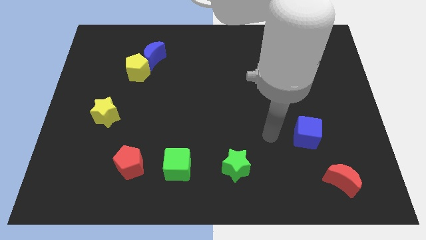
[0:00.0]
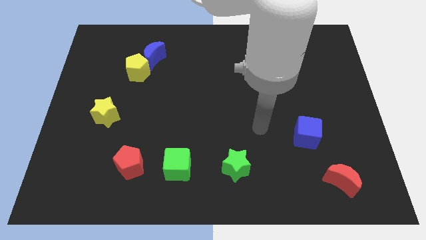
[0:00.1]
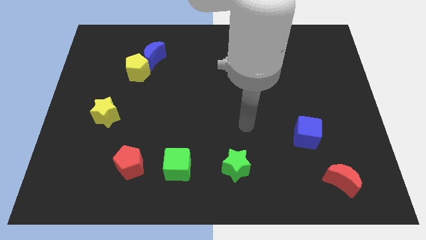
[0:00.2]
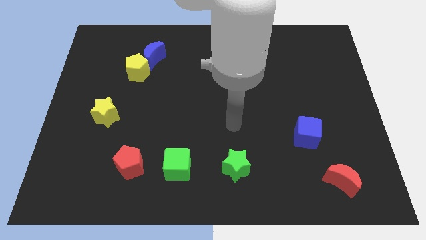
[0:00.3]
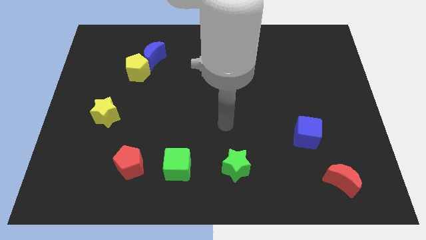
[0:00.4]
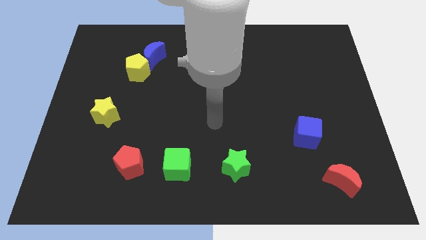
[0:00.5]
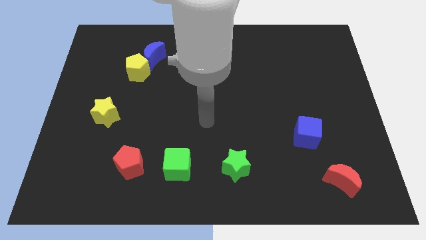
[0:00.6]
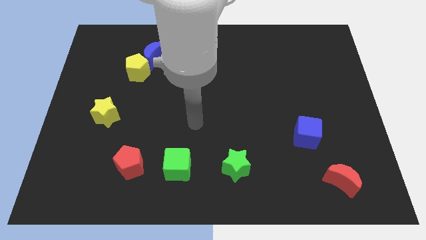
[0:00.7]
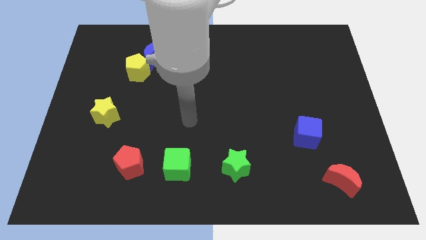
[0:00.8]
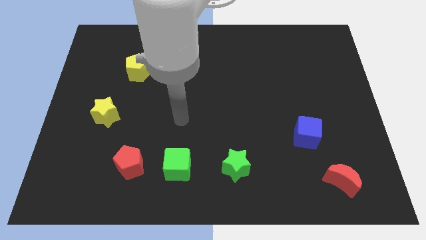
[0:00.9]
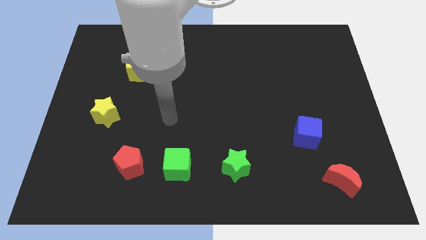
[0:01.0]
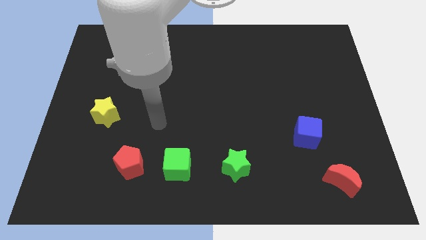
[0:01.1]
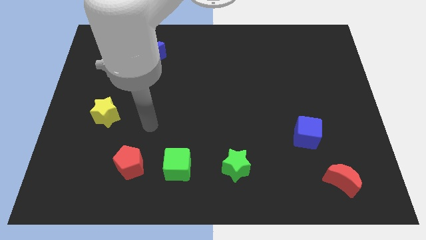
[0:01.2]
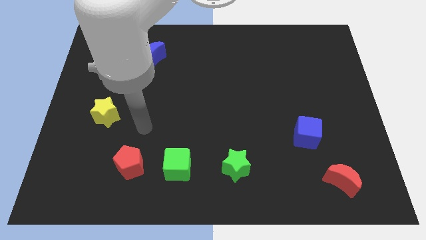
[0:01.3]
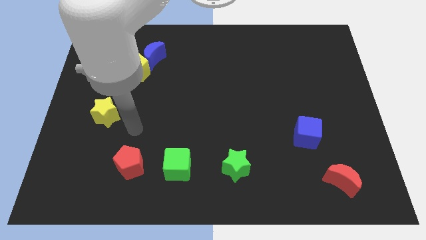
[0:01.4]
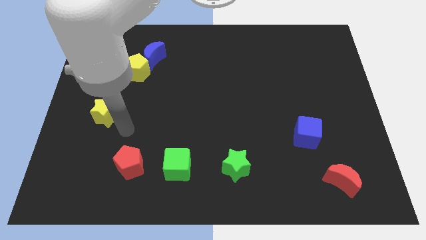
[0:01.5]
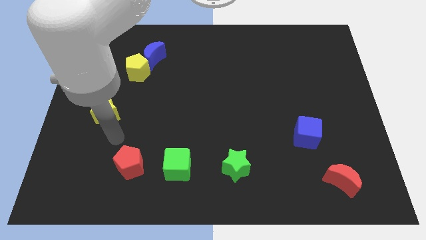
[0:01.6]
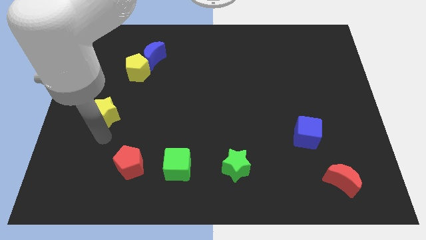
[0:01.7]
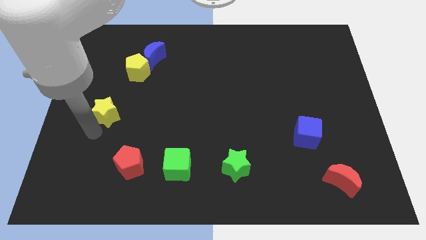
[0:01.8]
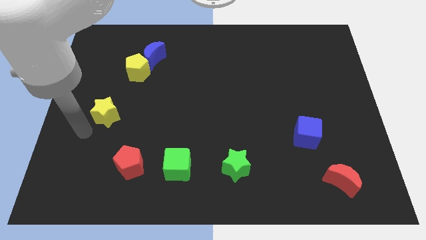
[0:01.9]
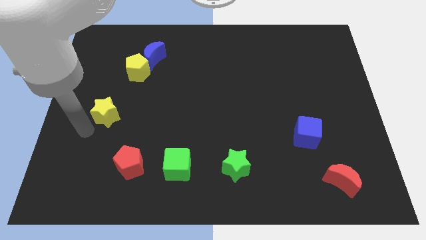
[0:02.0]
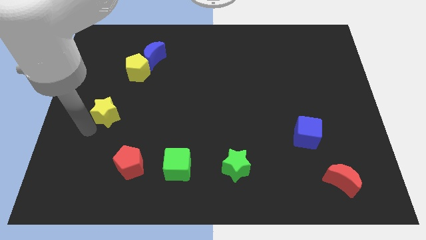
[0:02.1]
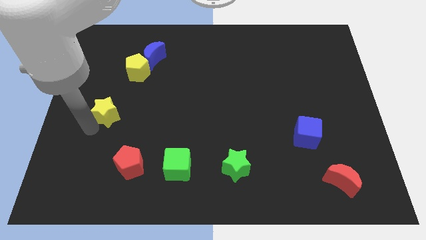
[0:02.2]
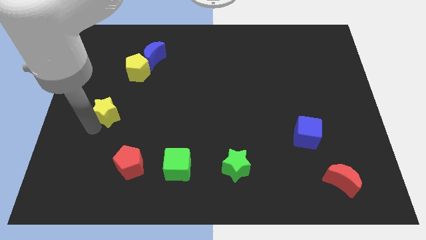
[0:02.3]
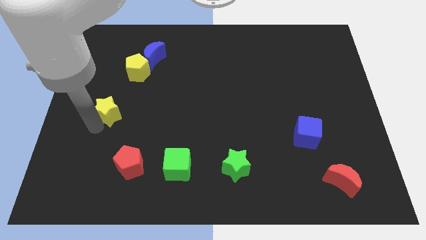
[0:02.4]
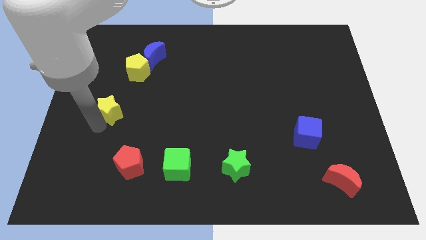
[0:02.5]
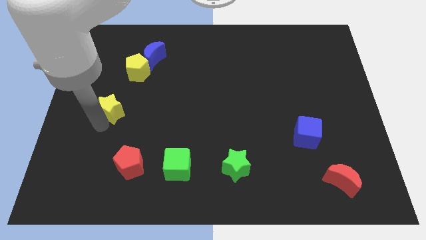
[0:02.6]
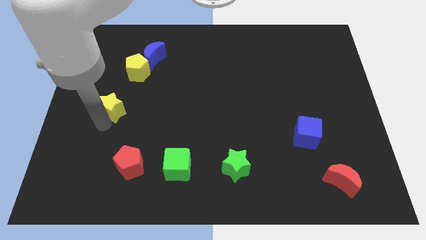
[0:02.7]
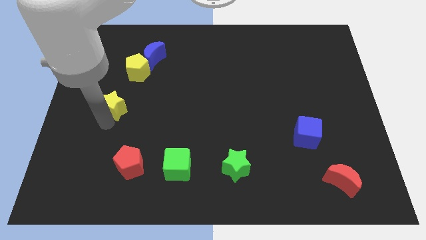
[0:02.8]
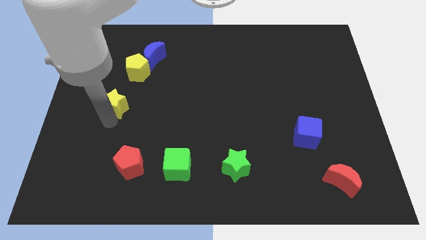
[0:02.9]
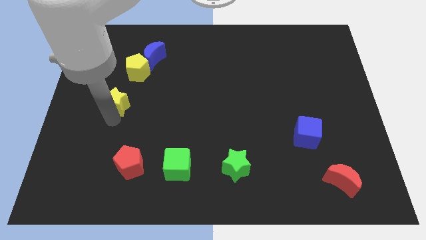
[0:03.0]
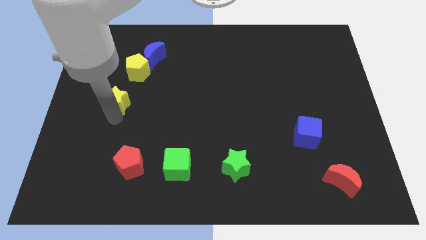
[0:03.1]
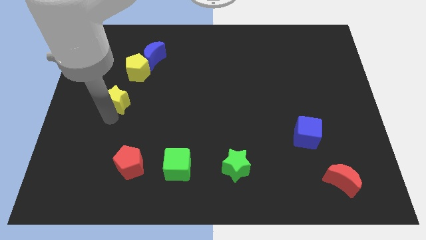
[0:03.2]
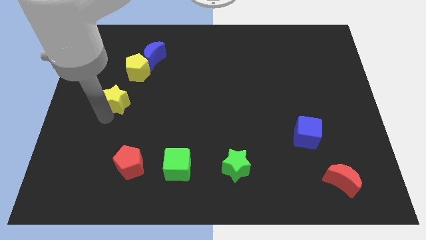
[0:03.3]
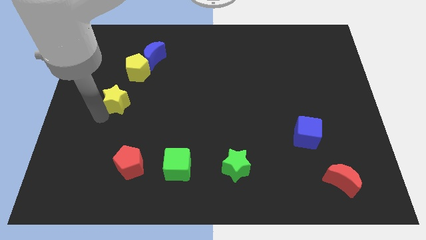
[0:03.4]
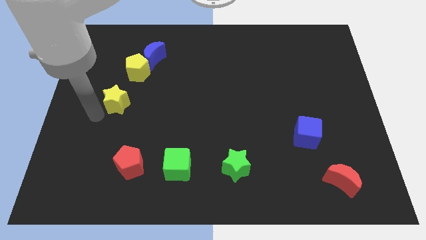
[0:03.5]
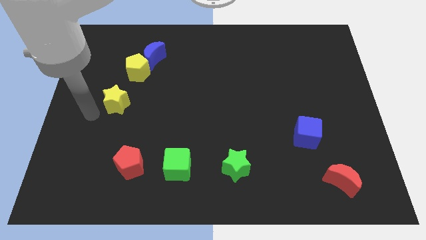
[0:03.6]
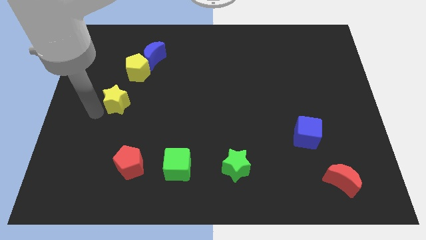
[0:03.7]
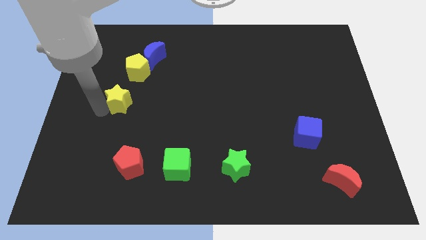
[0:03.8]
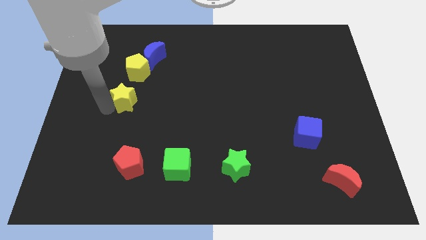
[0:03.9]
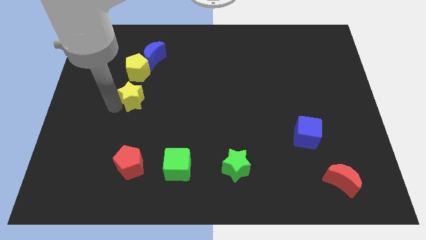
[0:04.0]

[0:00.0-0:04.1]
slightly push the yellow star upwards and then right

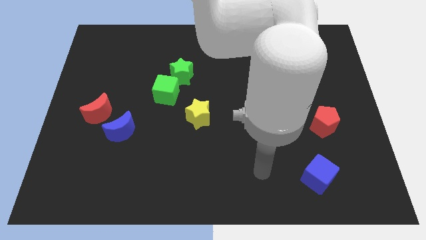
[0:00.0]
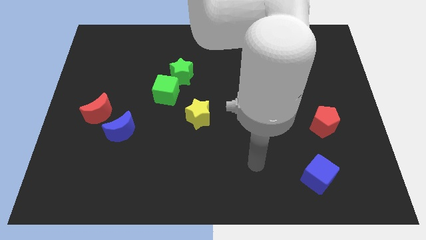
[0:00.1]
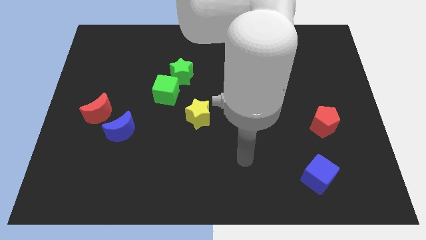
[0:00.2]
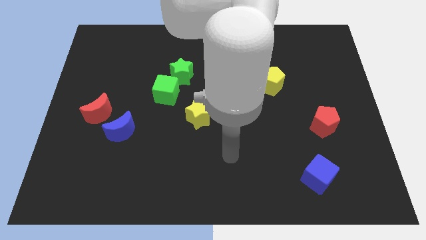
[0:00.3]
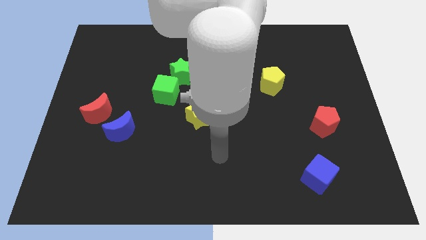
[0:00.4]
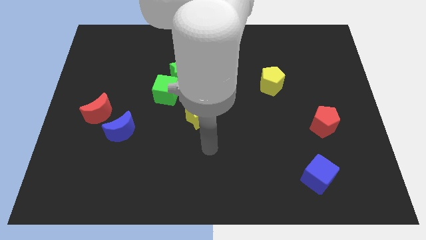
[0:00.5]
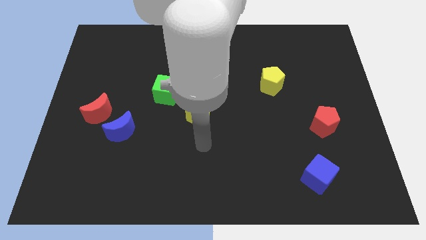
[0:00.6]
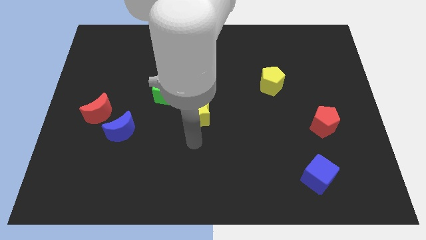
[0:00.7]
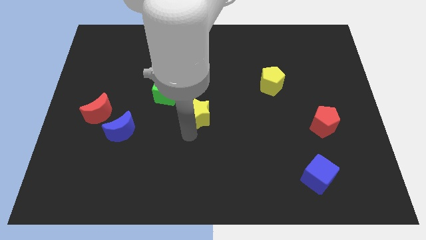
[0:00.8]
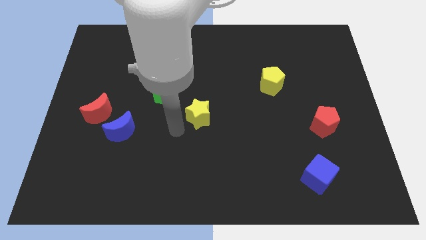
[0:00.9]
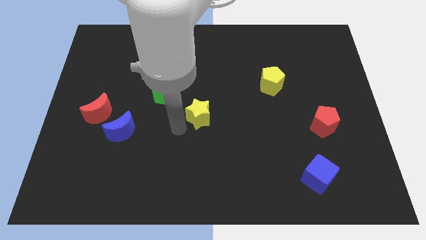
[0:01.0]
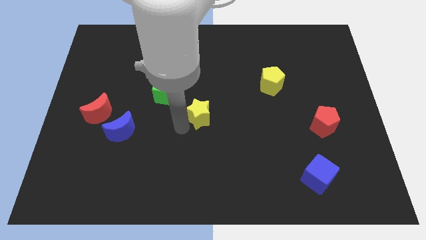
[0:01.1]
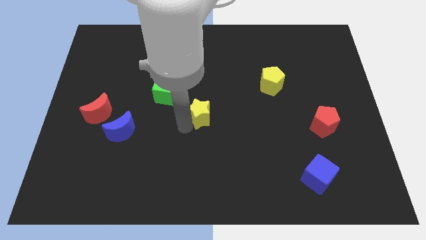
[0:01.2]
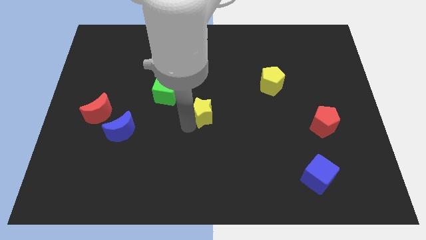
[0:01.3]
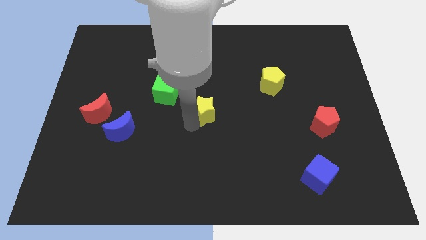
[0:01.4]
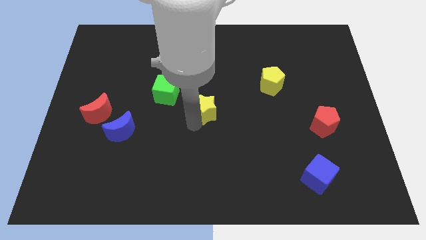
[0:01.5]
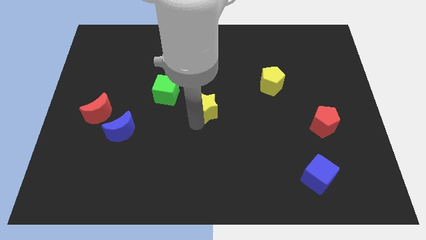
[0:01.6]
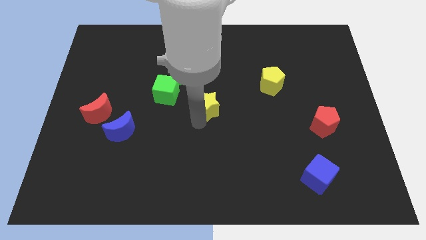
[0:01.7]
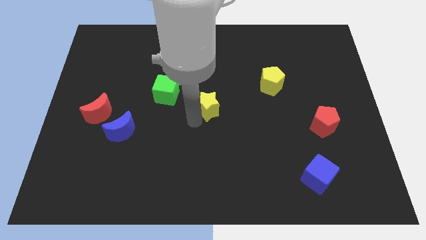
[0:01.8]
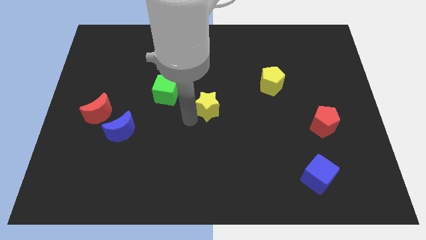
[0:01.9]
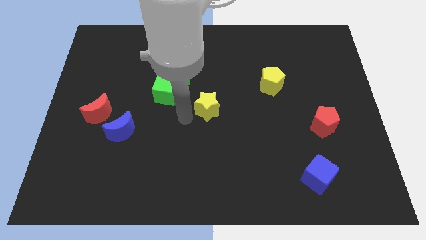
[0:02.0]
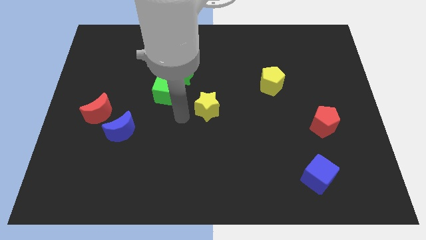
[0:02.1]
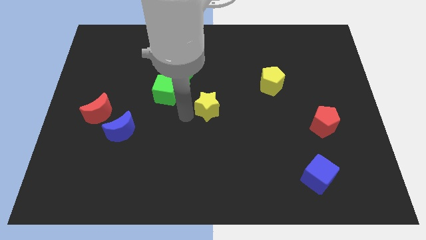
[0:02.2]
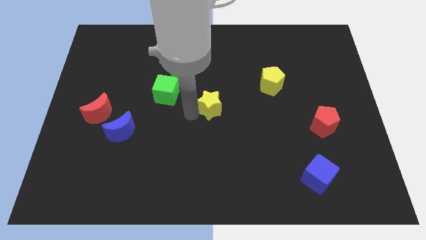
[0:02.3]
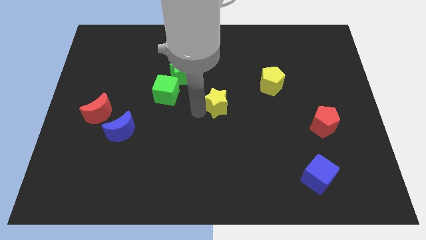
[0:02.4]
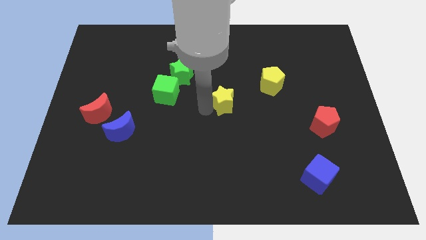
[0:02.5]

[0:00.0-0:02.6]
slightly move the yellow star upwards and to the right diagonally

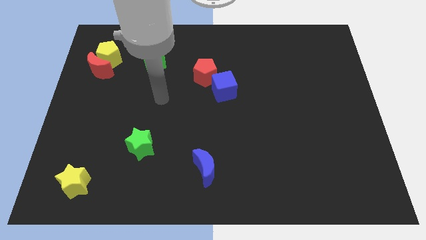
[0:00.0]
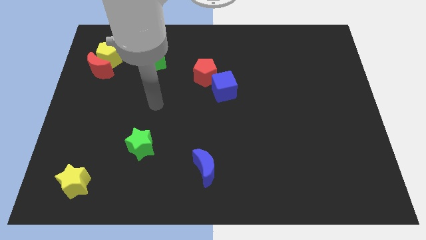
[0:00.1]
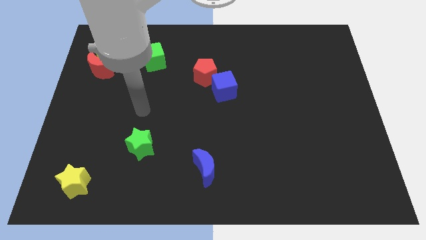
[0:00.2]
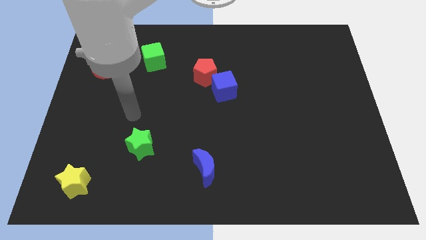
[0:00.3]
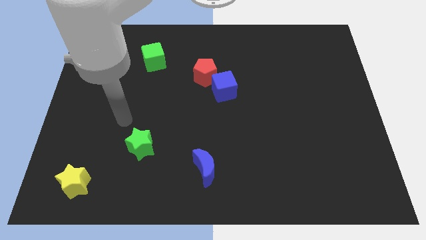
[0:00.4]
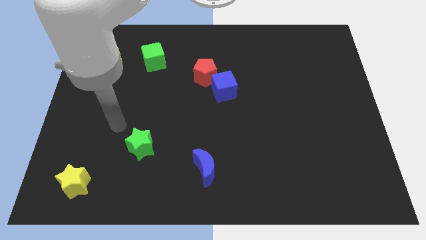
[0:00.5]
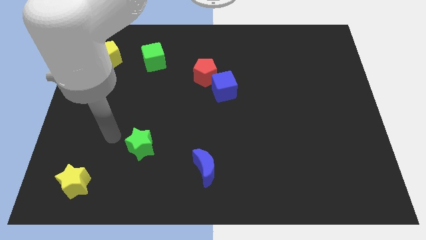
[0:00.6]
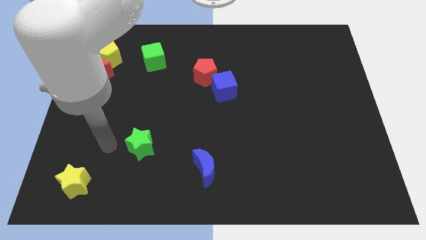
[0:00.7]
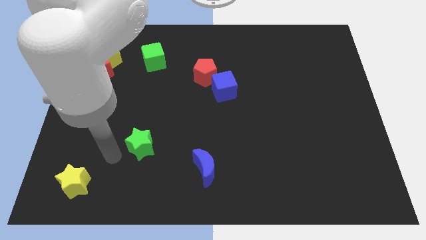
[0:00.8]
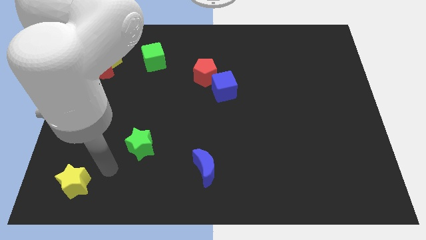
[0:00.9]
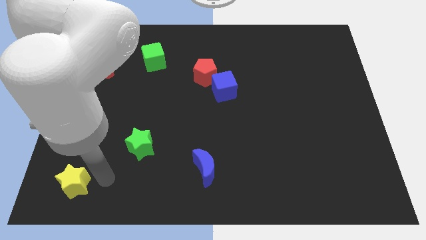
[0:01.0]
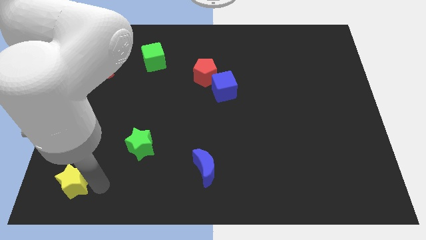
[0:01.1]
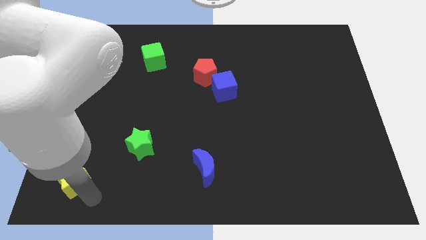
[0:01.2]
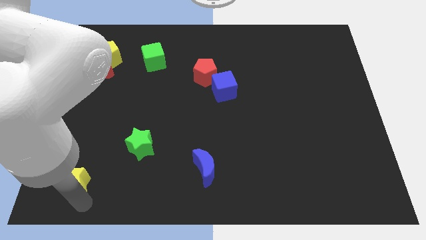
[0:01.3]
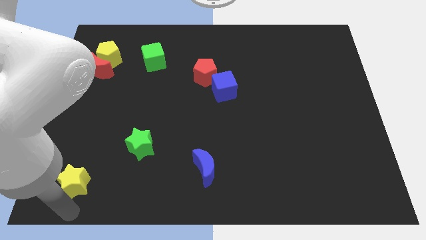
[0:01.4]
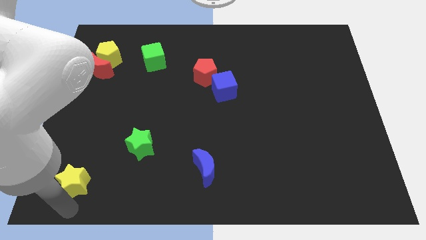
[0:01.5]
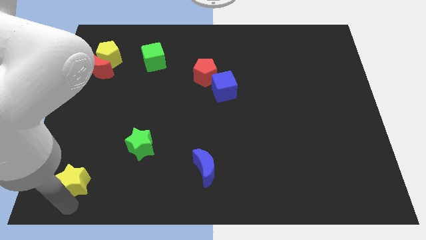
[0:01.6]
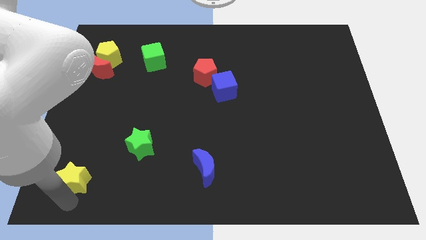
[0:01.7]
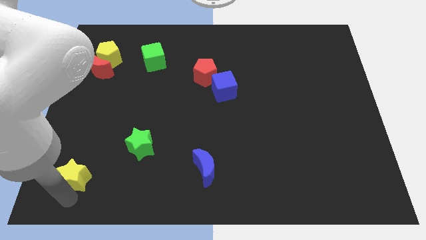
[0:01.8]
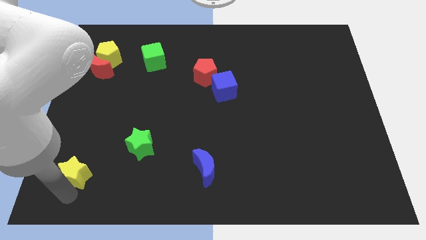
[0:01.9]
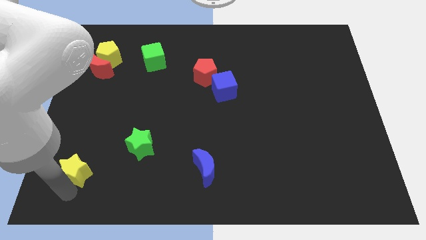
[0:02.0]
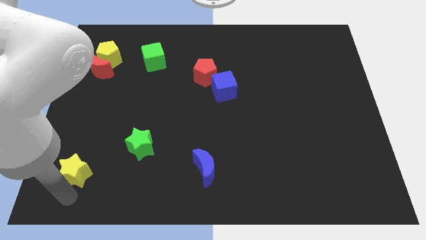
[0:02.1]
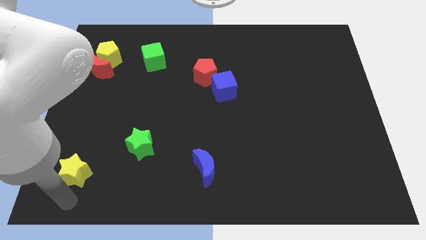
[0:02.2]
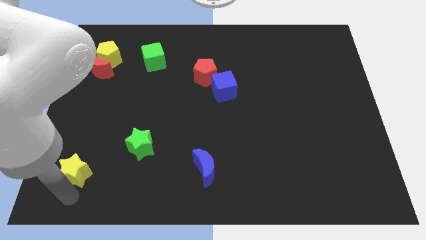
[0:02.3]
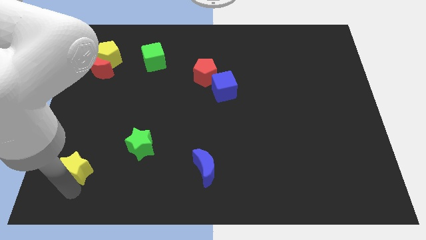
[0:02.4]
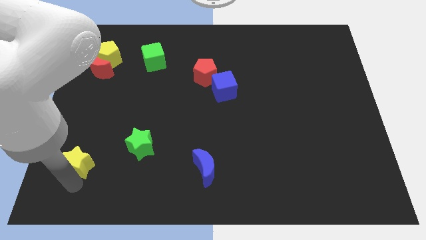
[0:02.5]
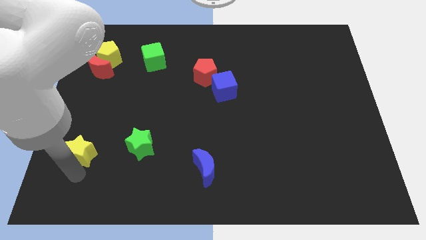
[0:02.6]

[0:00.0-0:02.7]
push the yellow star upwards somewhat
